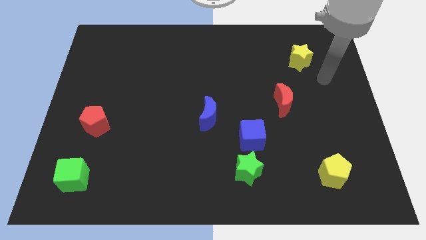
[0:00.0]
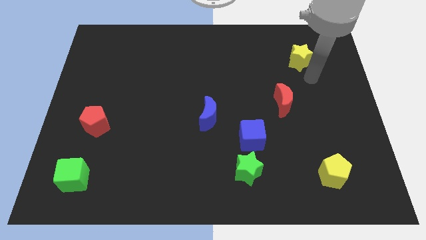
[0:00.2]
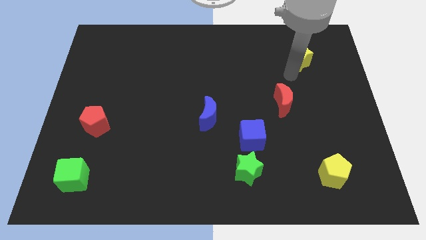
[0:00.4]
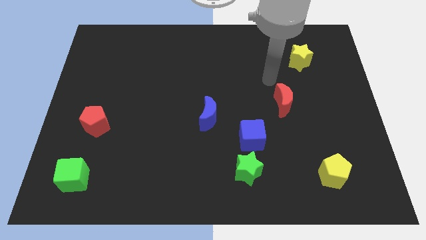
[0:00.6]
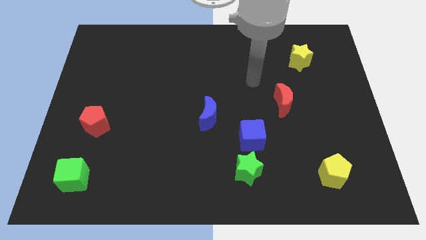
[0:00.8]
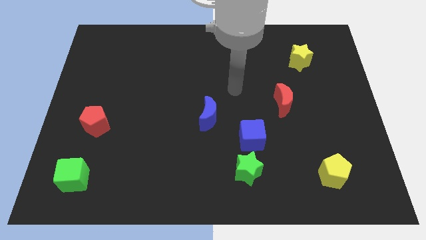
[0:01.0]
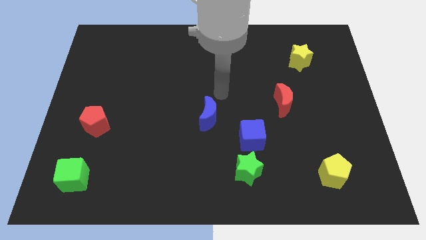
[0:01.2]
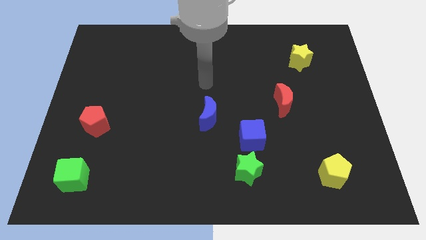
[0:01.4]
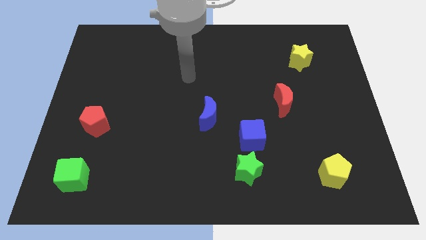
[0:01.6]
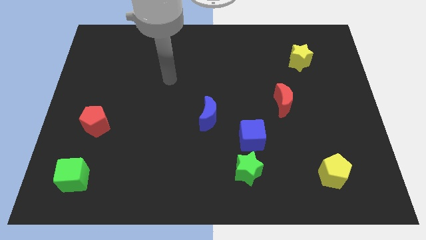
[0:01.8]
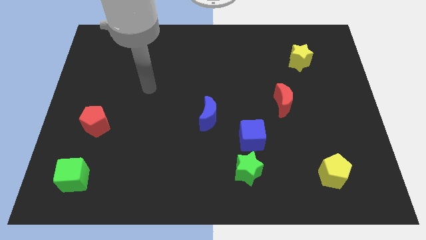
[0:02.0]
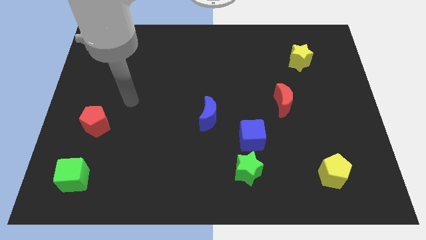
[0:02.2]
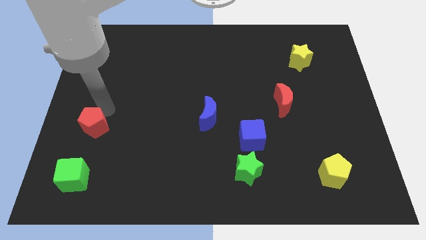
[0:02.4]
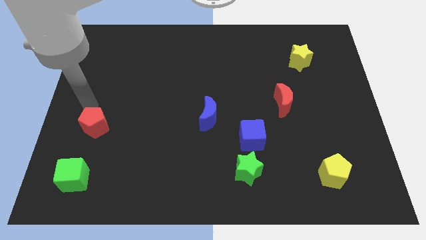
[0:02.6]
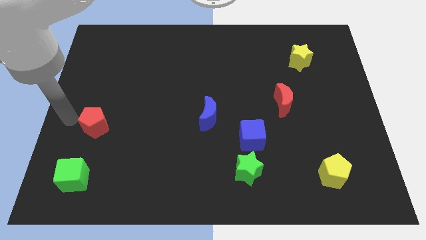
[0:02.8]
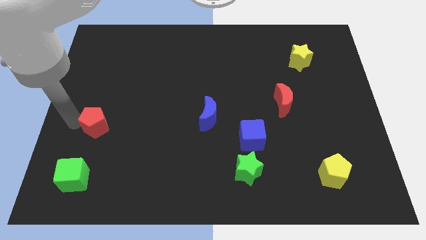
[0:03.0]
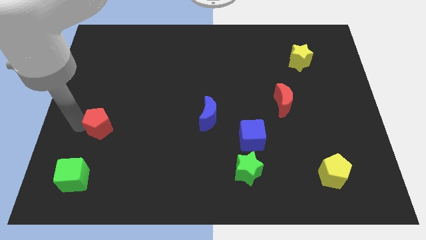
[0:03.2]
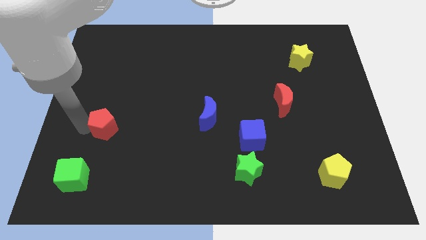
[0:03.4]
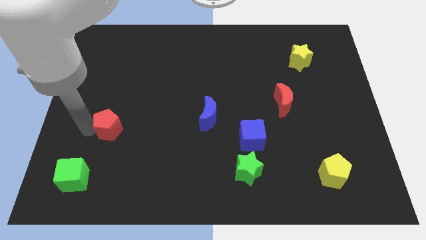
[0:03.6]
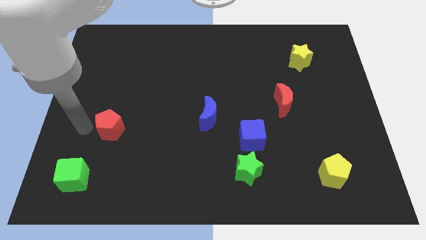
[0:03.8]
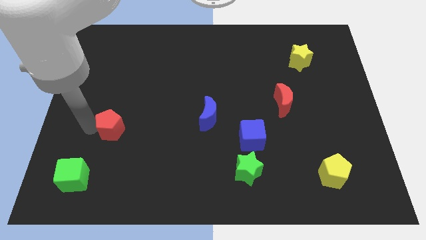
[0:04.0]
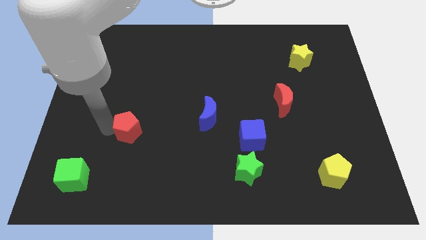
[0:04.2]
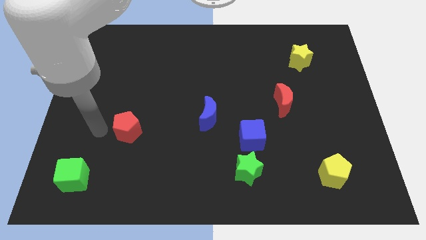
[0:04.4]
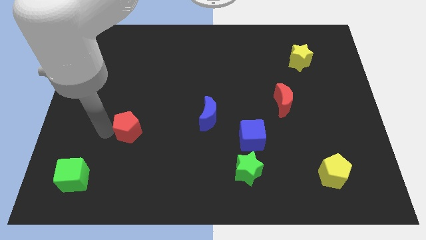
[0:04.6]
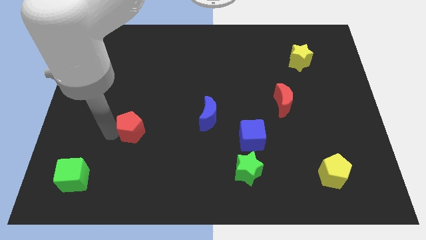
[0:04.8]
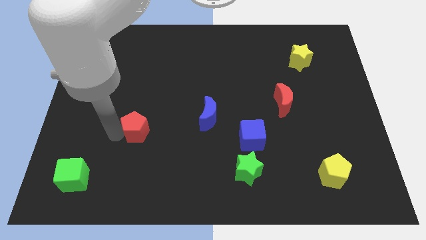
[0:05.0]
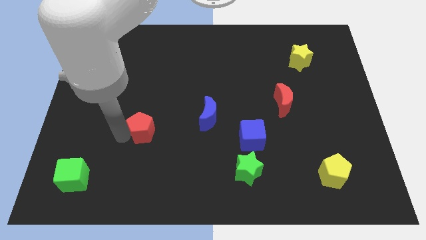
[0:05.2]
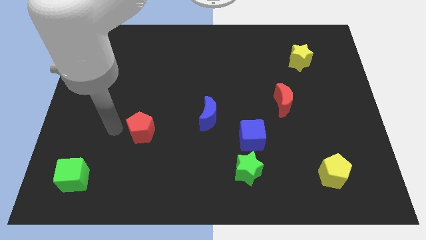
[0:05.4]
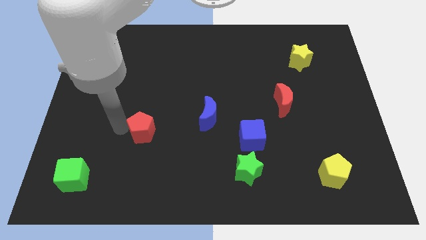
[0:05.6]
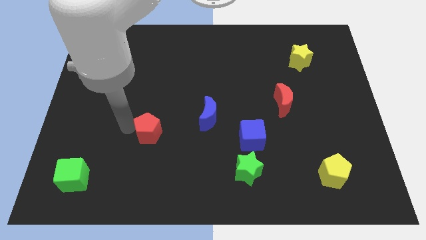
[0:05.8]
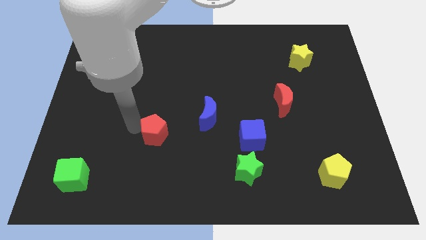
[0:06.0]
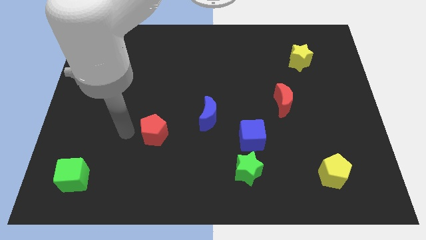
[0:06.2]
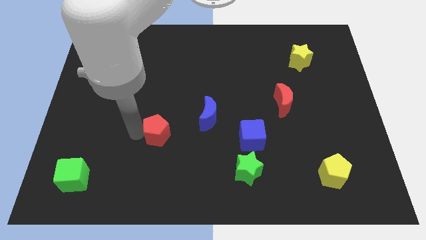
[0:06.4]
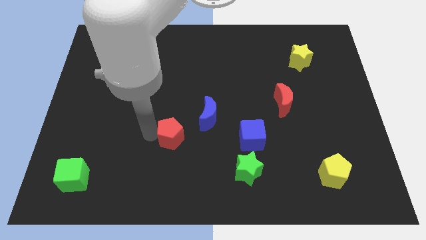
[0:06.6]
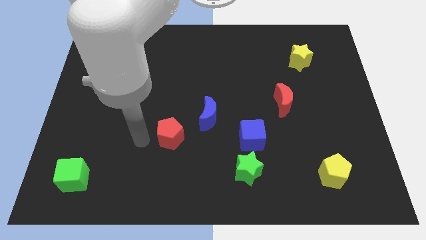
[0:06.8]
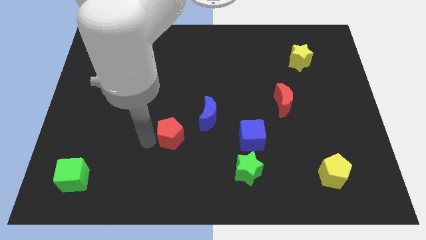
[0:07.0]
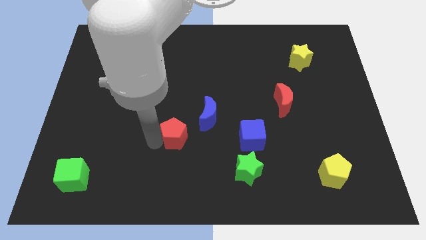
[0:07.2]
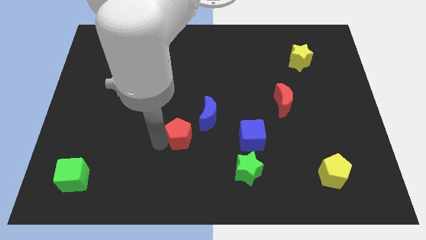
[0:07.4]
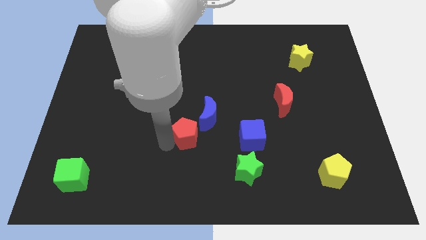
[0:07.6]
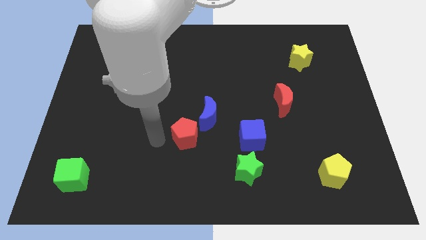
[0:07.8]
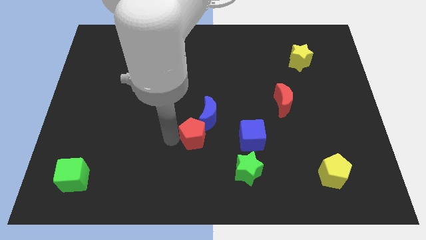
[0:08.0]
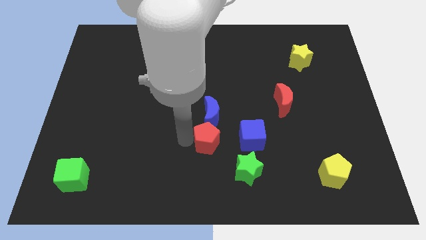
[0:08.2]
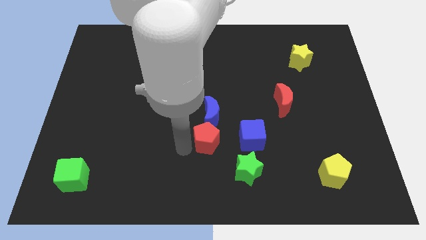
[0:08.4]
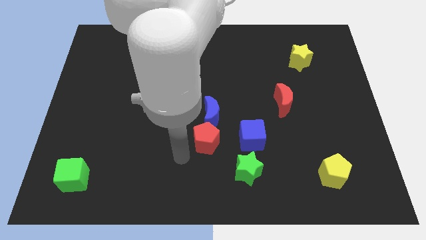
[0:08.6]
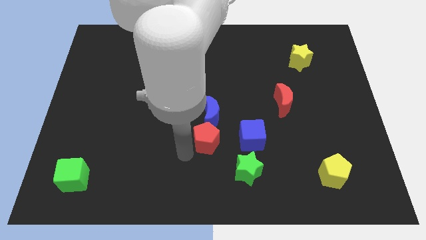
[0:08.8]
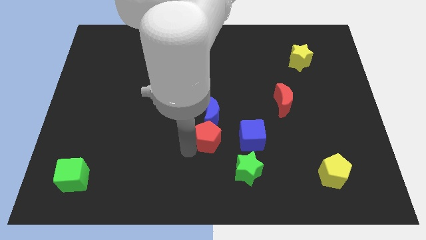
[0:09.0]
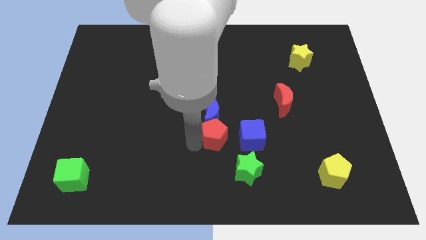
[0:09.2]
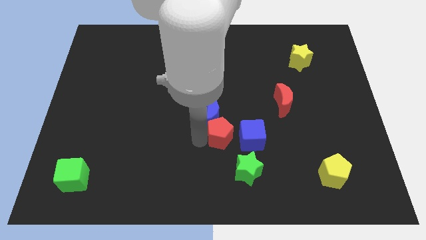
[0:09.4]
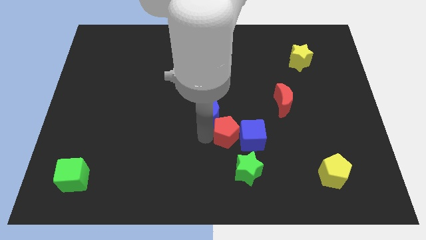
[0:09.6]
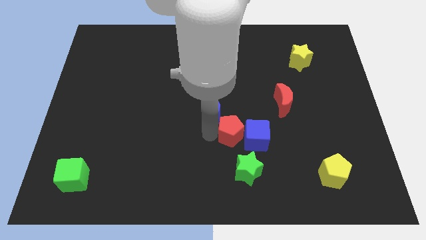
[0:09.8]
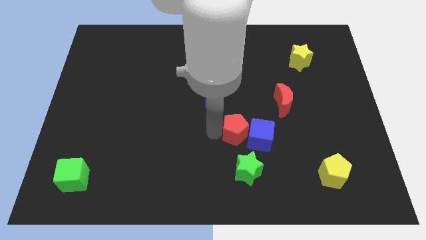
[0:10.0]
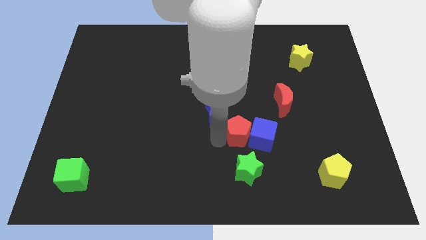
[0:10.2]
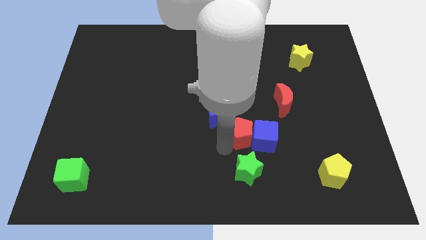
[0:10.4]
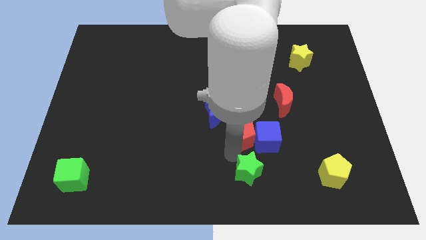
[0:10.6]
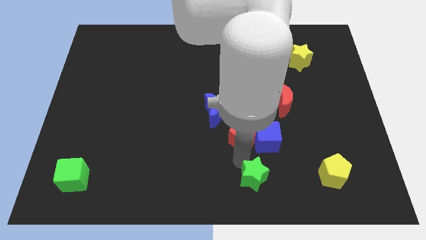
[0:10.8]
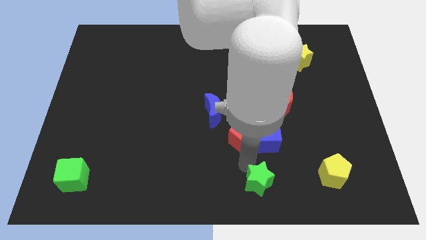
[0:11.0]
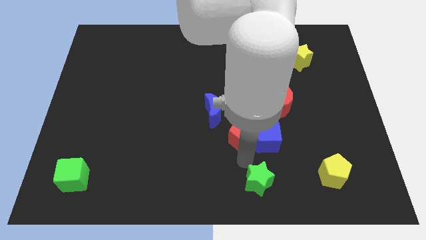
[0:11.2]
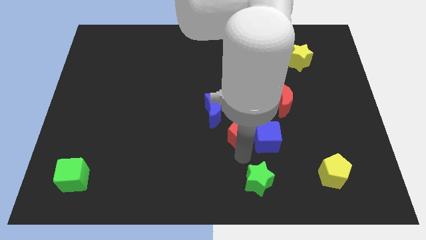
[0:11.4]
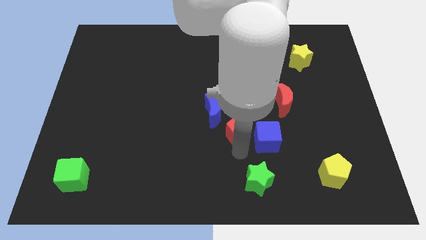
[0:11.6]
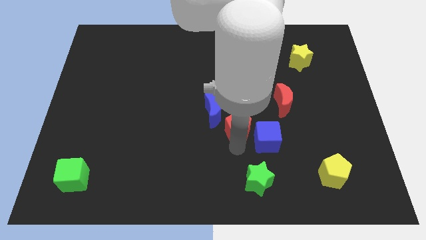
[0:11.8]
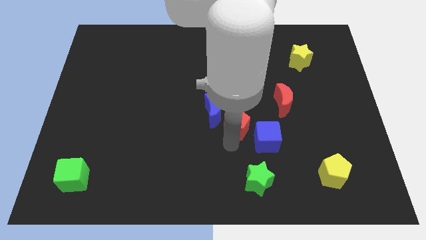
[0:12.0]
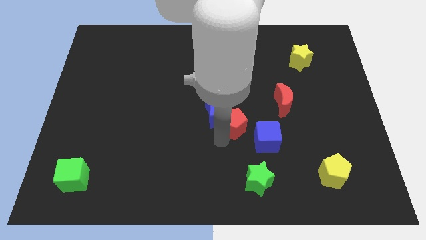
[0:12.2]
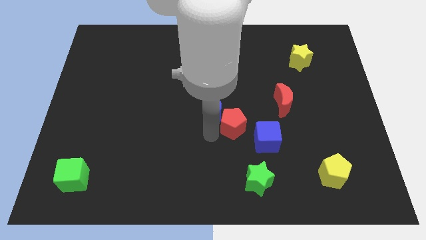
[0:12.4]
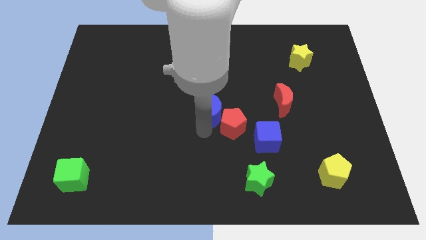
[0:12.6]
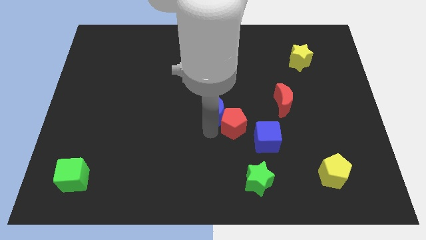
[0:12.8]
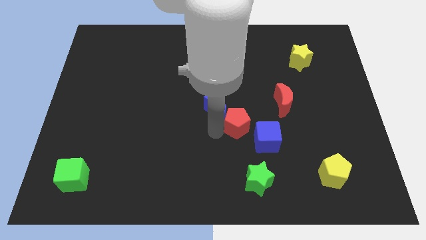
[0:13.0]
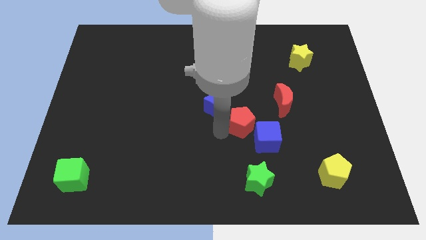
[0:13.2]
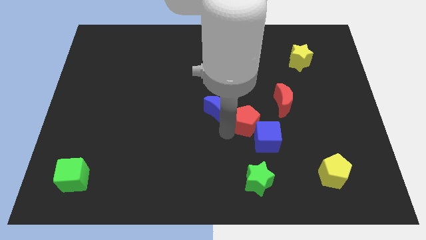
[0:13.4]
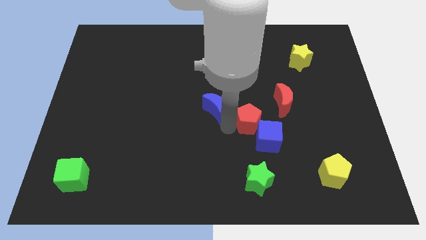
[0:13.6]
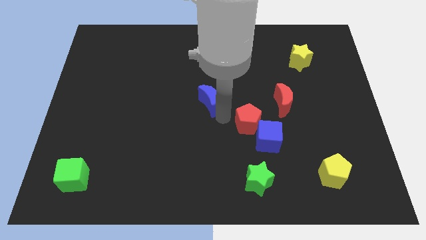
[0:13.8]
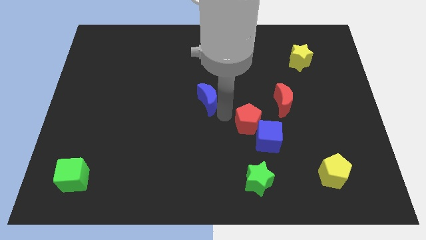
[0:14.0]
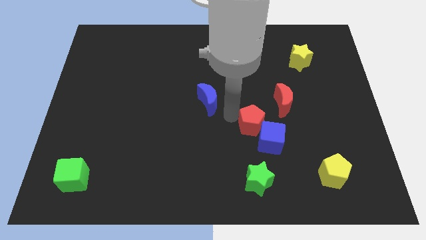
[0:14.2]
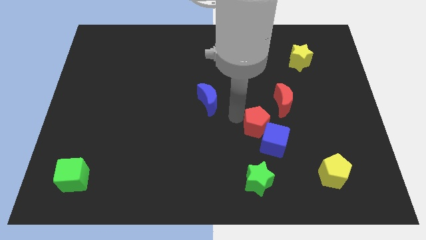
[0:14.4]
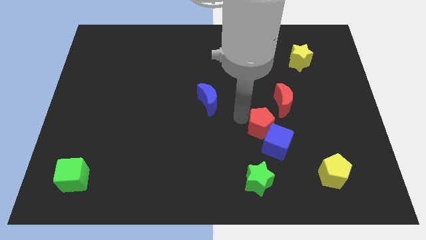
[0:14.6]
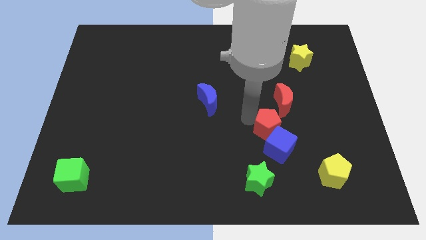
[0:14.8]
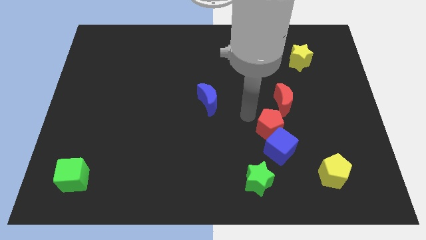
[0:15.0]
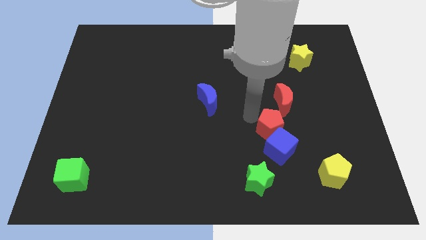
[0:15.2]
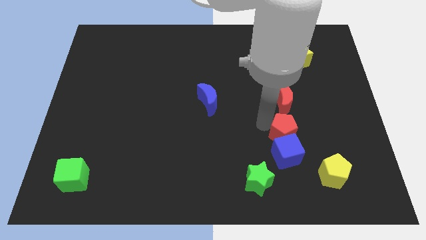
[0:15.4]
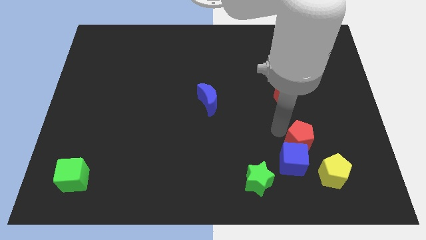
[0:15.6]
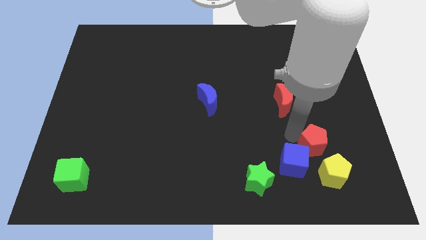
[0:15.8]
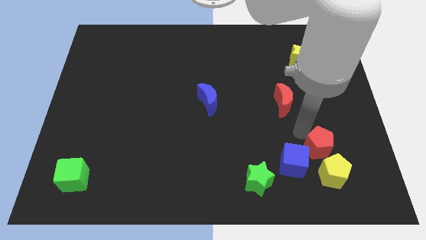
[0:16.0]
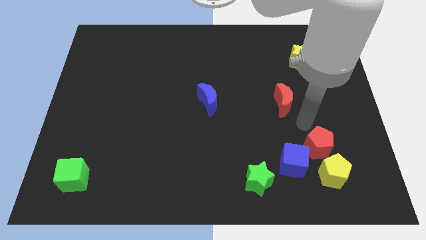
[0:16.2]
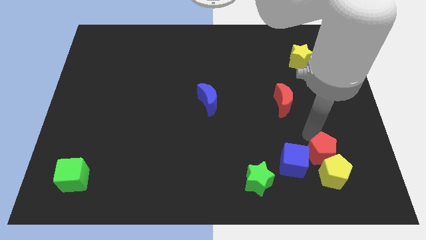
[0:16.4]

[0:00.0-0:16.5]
slide the red pentagon next to the yellow pentagon
